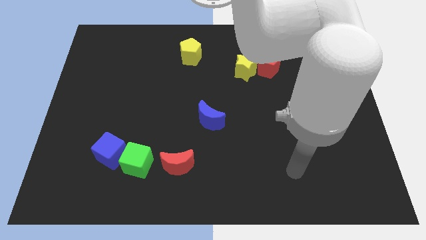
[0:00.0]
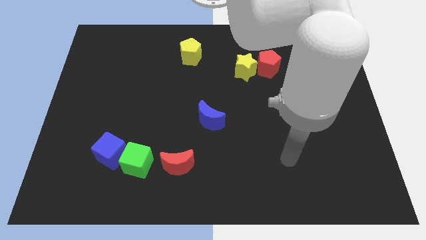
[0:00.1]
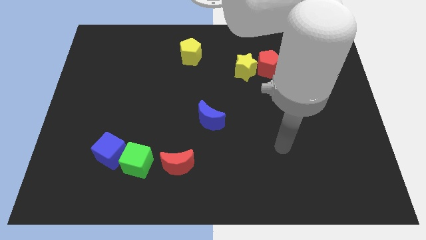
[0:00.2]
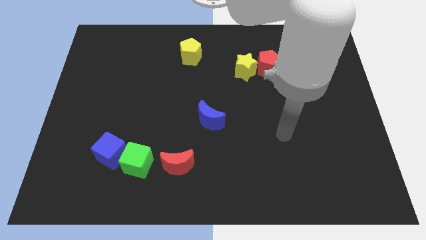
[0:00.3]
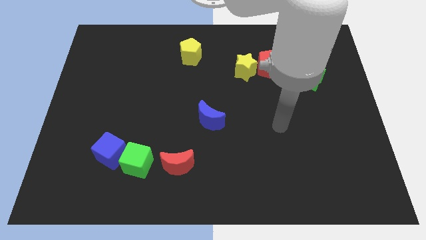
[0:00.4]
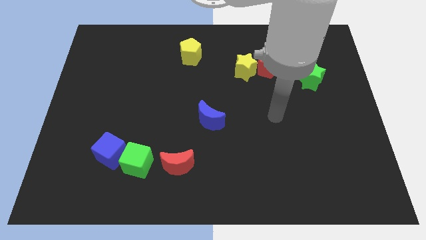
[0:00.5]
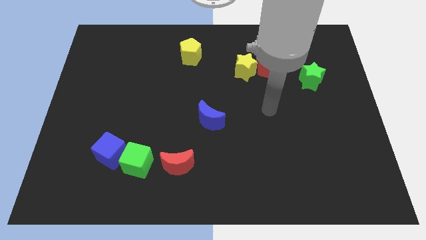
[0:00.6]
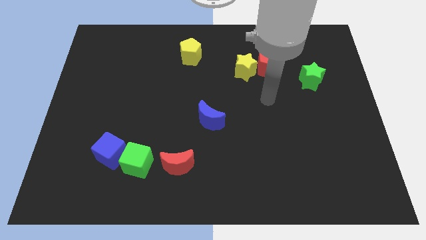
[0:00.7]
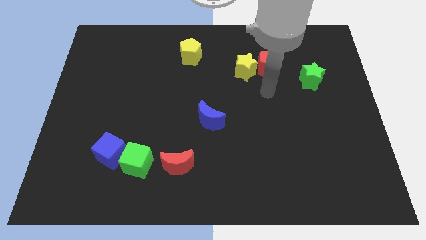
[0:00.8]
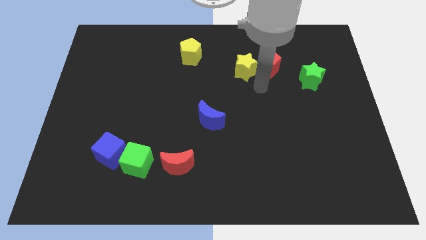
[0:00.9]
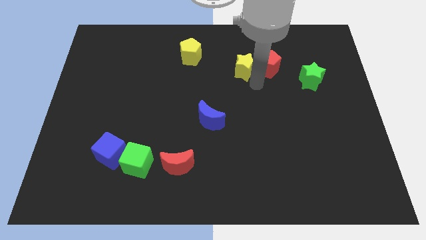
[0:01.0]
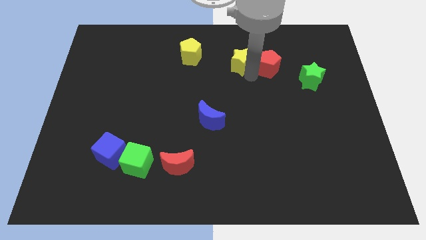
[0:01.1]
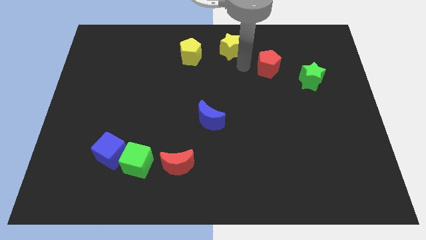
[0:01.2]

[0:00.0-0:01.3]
separate the red pentagon from the yellow star

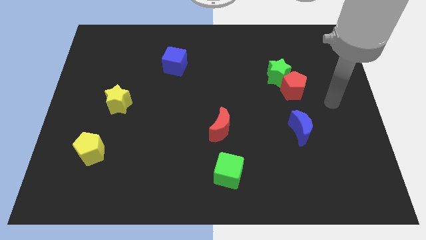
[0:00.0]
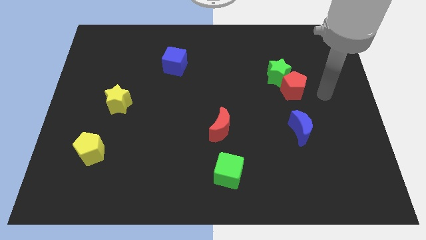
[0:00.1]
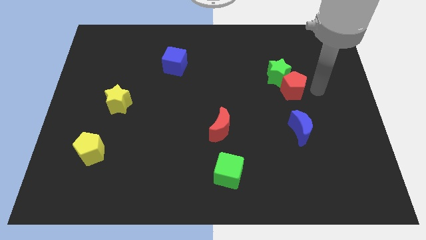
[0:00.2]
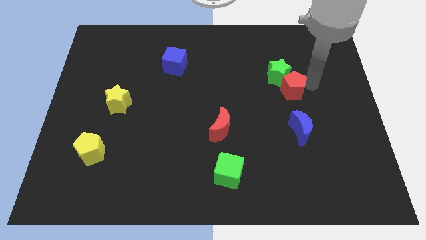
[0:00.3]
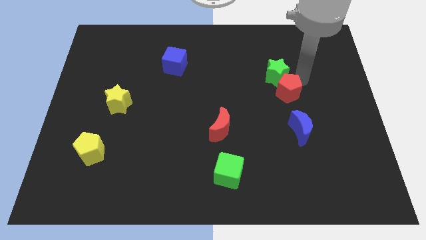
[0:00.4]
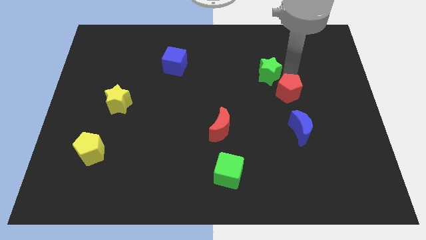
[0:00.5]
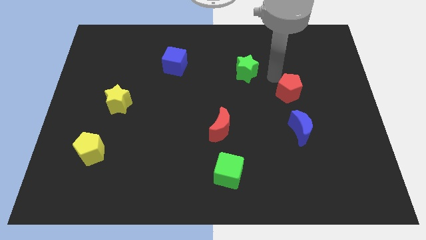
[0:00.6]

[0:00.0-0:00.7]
move the red pentagon away from the green star

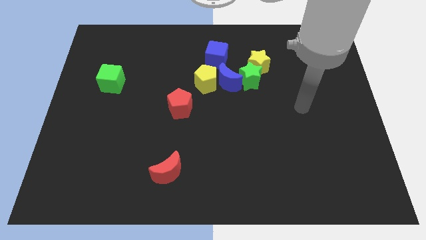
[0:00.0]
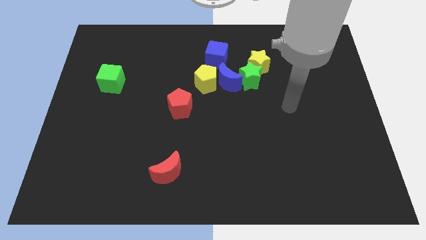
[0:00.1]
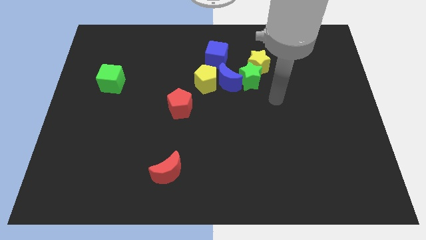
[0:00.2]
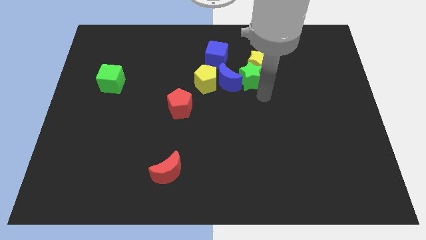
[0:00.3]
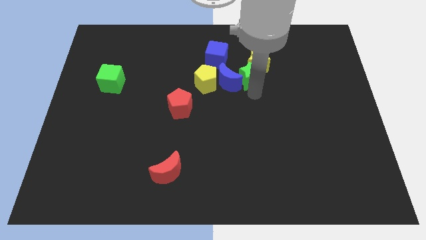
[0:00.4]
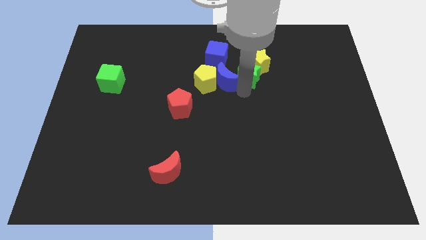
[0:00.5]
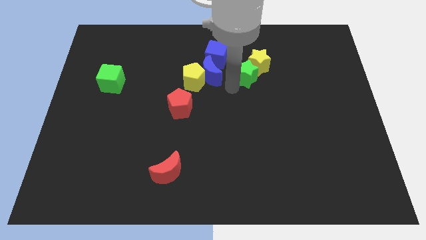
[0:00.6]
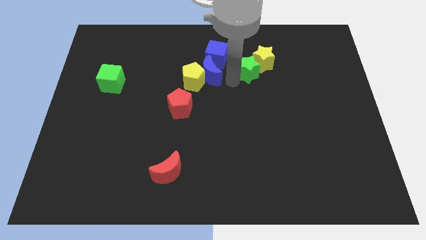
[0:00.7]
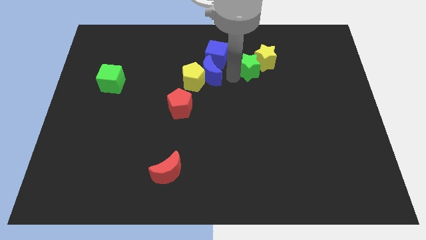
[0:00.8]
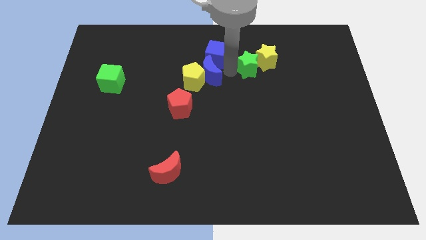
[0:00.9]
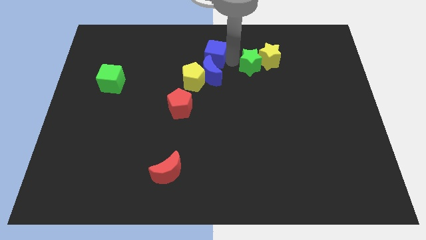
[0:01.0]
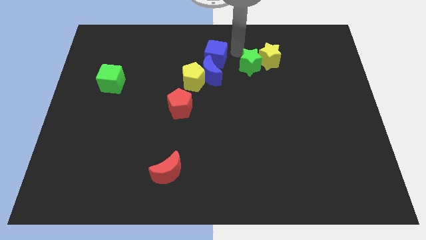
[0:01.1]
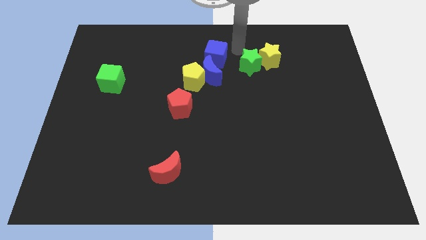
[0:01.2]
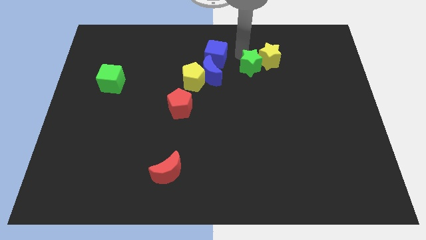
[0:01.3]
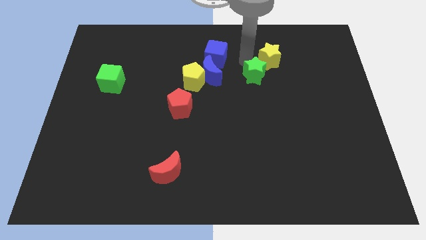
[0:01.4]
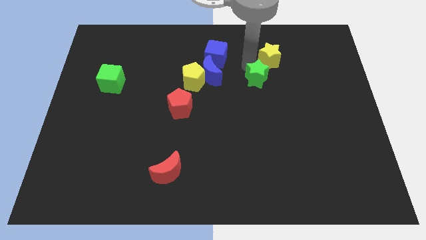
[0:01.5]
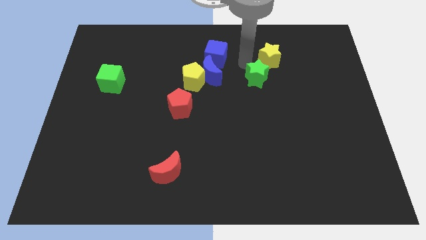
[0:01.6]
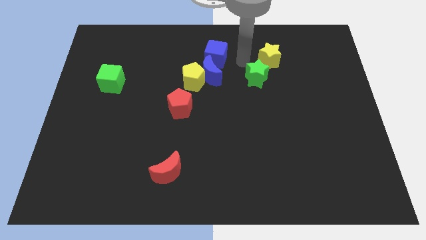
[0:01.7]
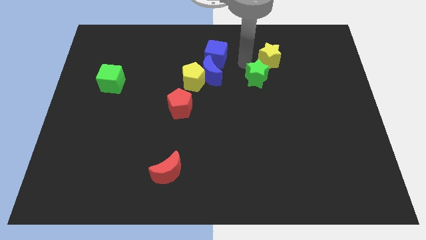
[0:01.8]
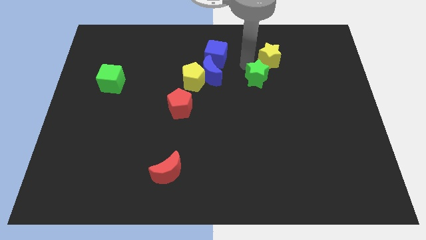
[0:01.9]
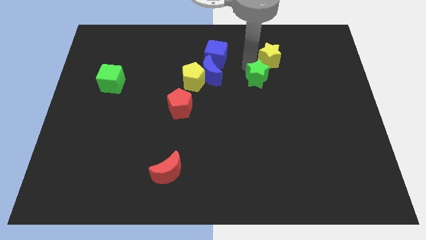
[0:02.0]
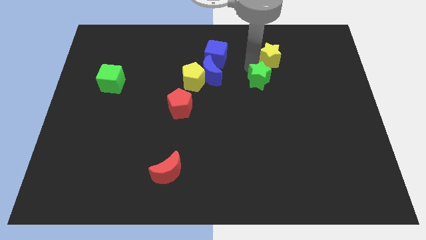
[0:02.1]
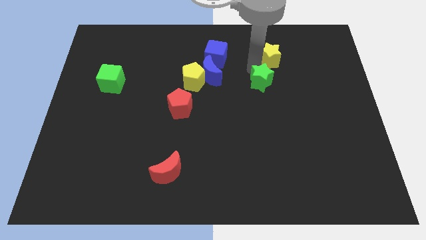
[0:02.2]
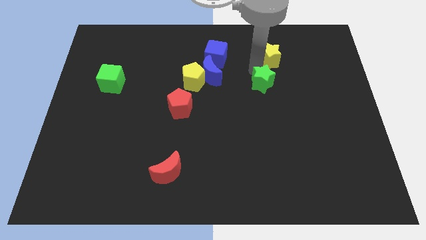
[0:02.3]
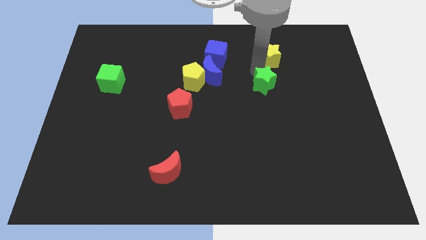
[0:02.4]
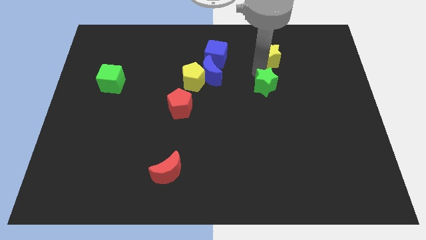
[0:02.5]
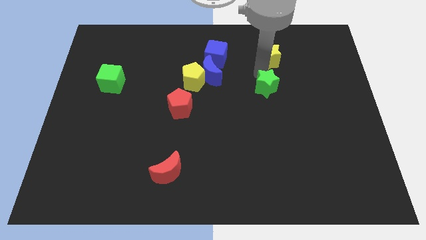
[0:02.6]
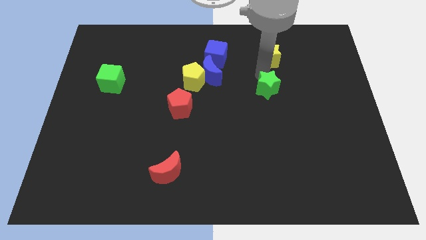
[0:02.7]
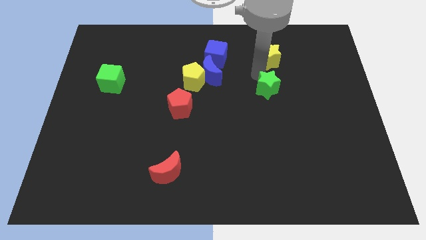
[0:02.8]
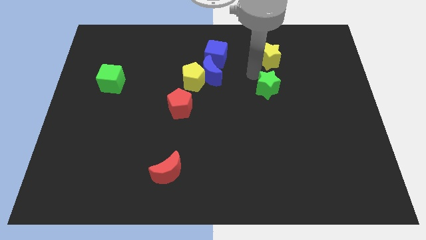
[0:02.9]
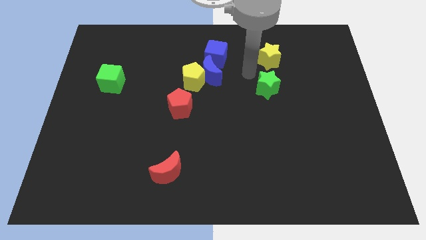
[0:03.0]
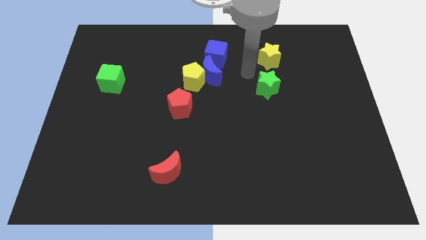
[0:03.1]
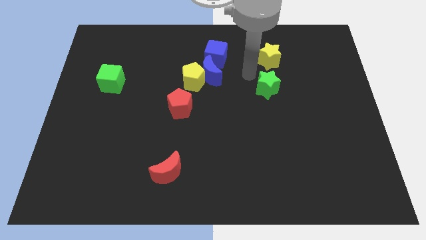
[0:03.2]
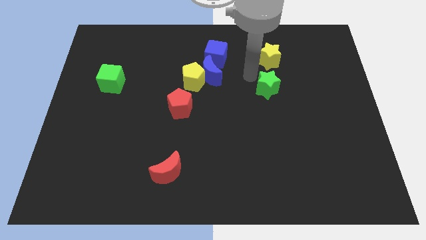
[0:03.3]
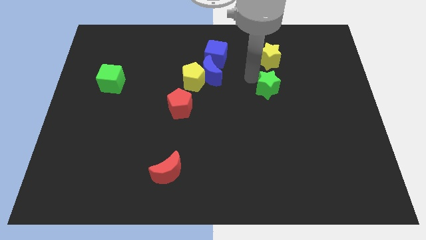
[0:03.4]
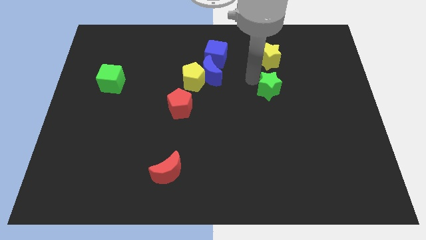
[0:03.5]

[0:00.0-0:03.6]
separate the green star from the yellow star and blue moon

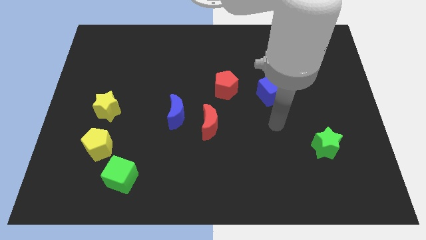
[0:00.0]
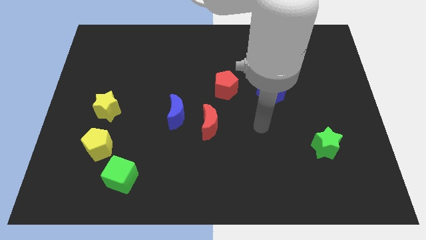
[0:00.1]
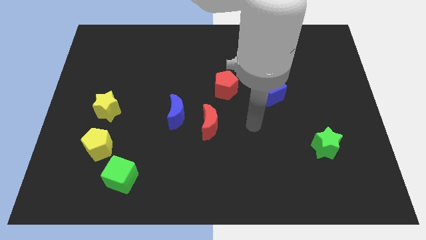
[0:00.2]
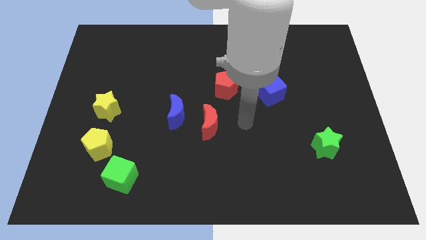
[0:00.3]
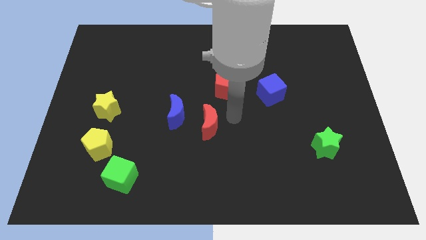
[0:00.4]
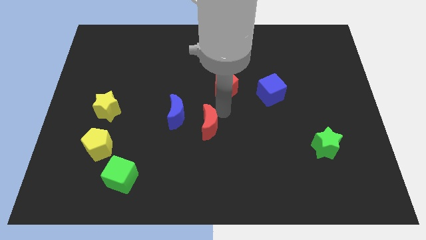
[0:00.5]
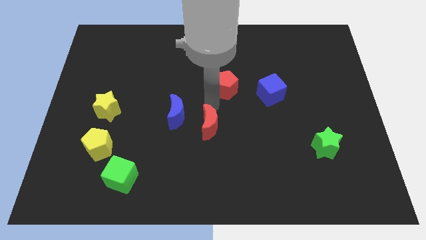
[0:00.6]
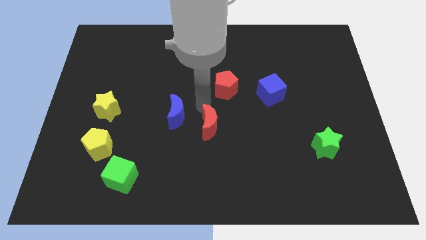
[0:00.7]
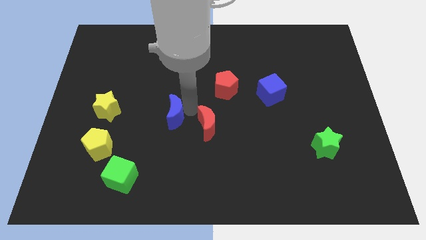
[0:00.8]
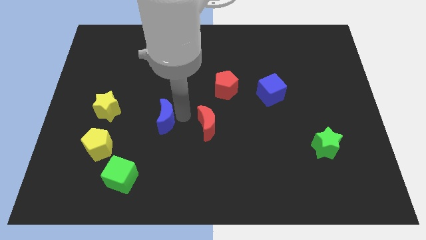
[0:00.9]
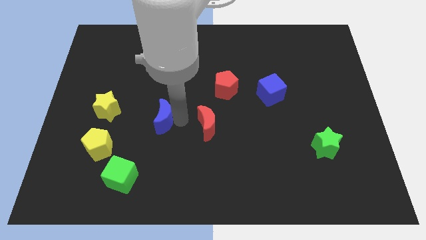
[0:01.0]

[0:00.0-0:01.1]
separate the red moon from the blue moon

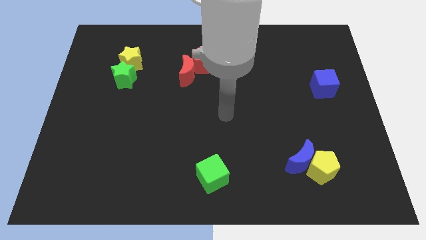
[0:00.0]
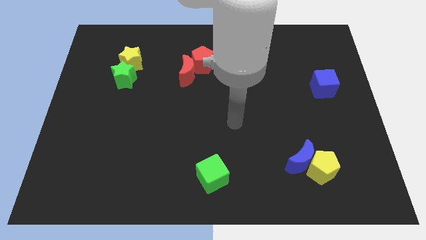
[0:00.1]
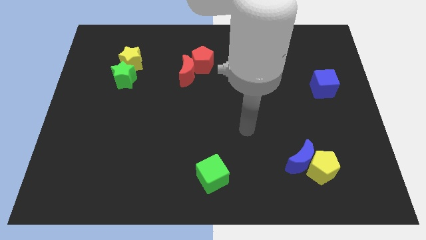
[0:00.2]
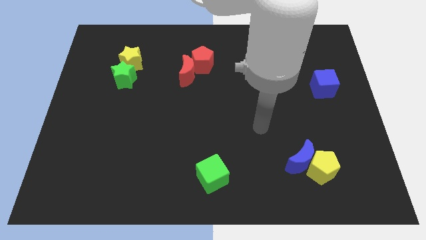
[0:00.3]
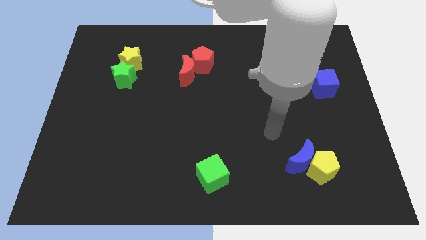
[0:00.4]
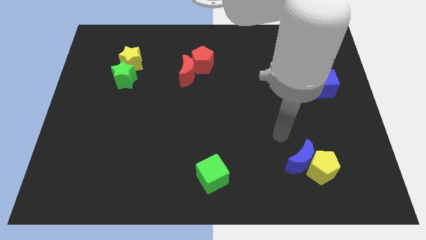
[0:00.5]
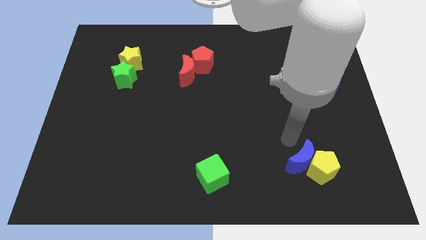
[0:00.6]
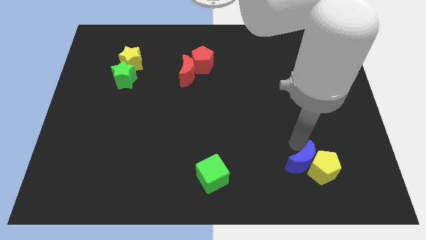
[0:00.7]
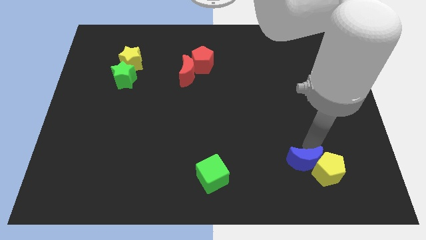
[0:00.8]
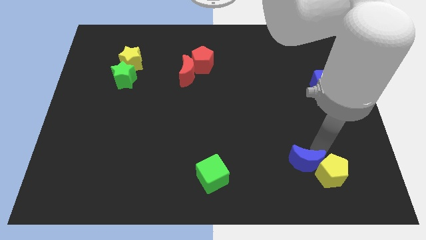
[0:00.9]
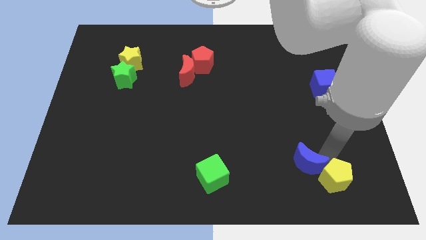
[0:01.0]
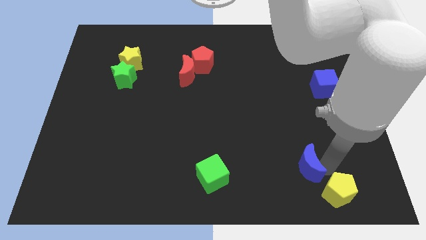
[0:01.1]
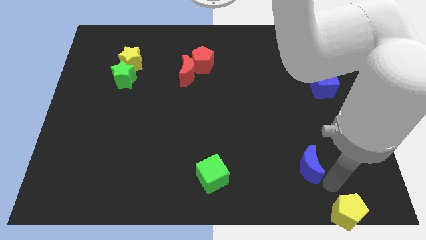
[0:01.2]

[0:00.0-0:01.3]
pull the blue moon apart from the yellow pentagon

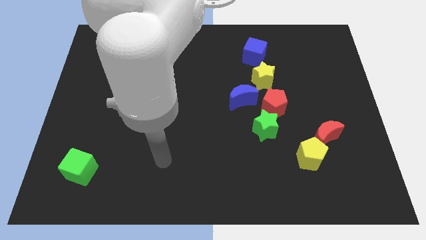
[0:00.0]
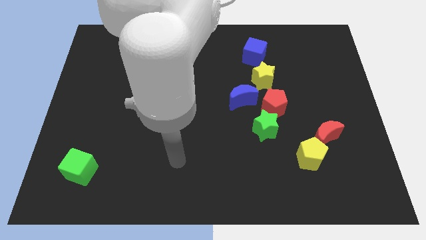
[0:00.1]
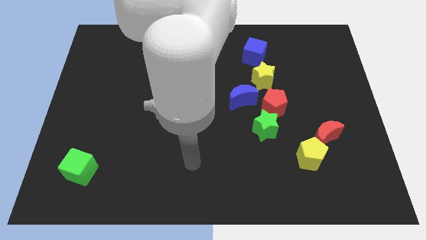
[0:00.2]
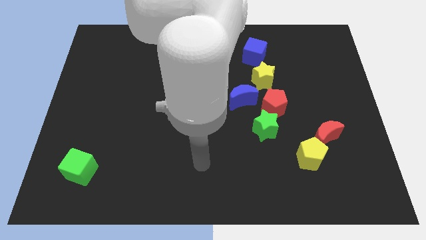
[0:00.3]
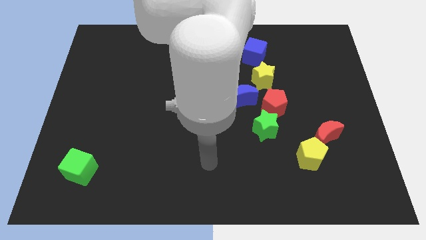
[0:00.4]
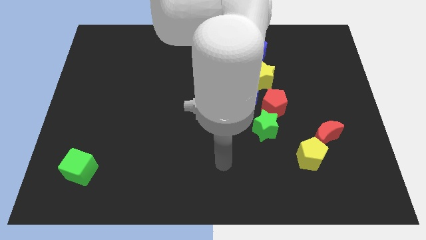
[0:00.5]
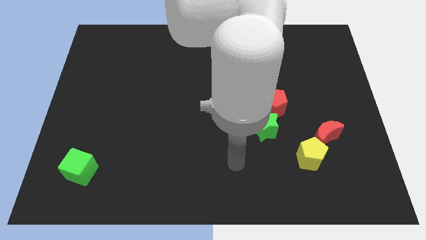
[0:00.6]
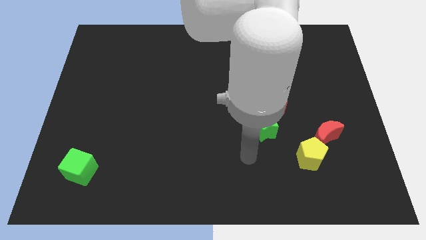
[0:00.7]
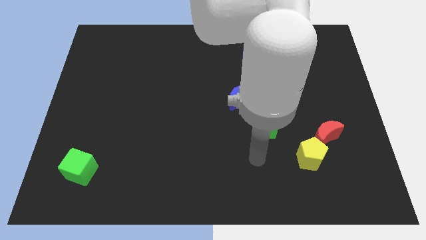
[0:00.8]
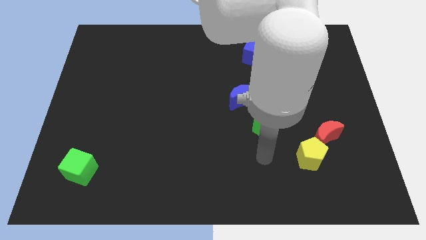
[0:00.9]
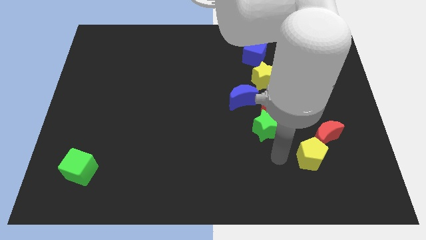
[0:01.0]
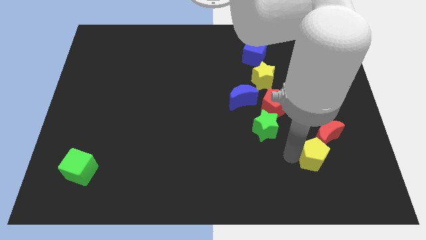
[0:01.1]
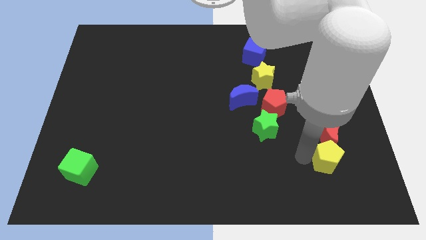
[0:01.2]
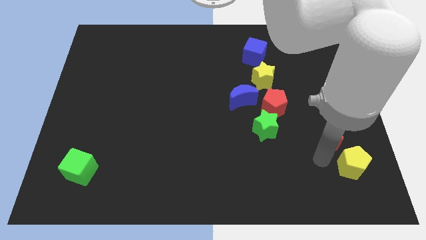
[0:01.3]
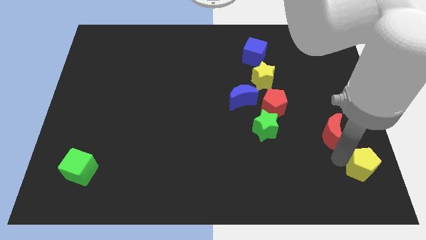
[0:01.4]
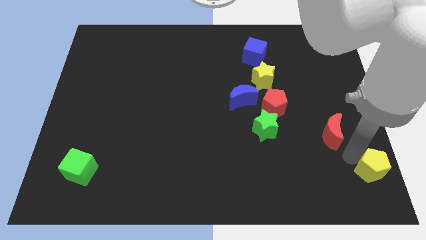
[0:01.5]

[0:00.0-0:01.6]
move the red moon away from the yellow pentagon
